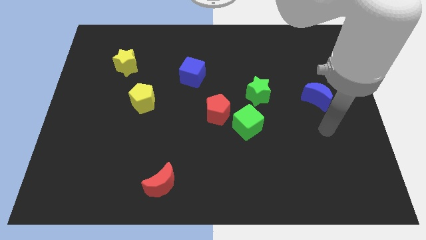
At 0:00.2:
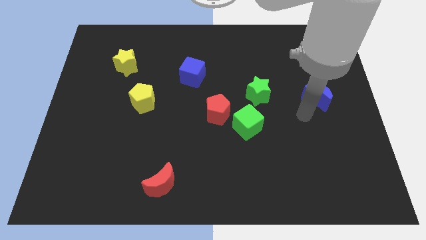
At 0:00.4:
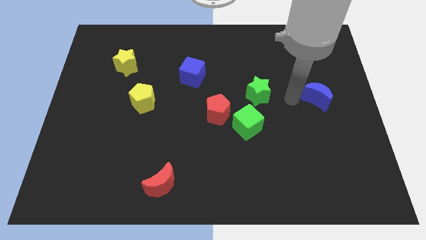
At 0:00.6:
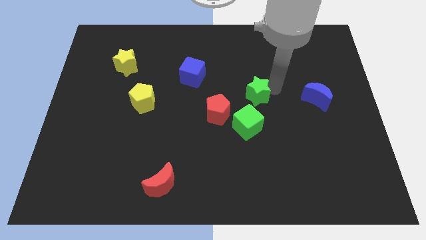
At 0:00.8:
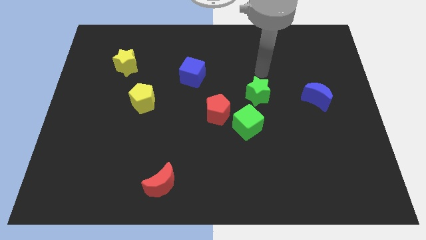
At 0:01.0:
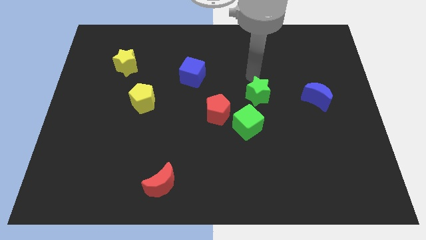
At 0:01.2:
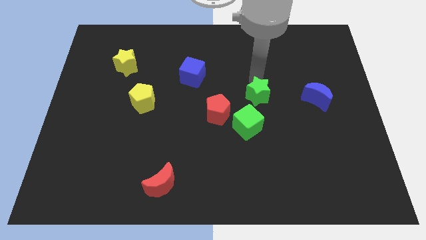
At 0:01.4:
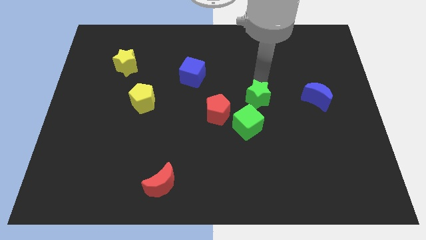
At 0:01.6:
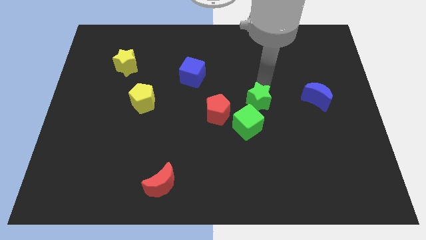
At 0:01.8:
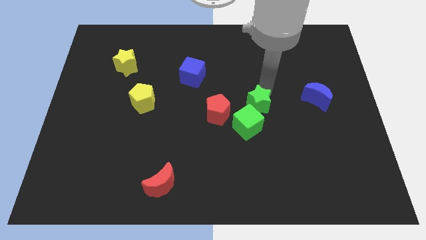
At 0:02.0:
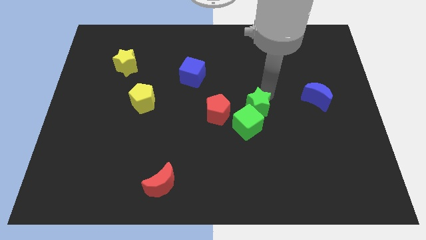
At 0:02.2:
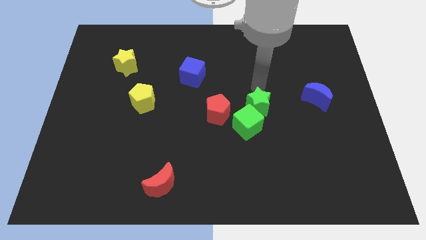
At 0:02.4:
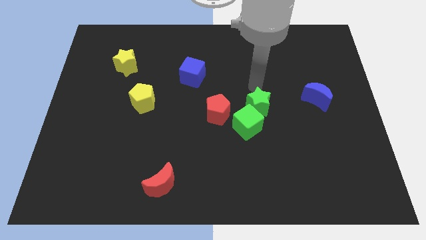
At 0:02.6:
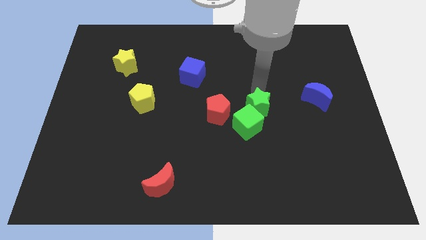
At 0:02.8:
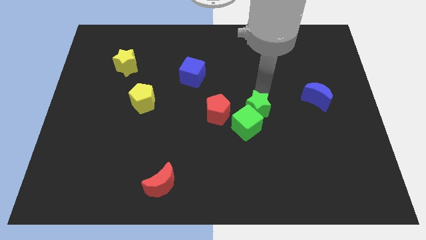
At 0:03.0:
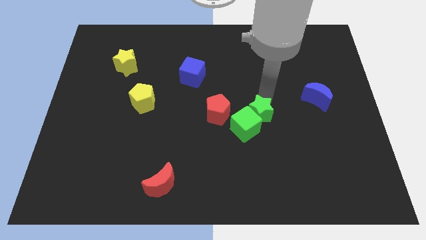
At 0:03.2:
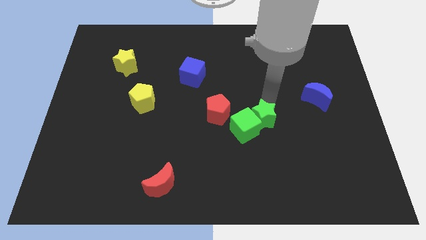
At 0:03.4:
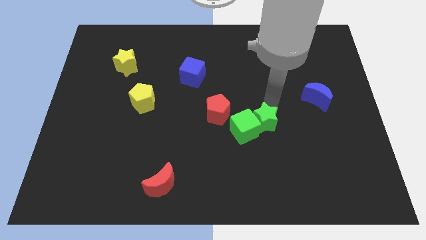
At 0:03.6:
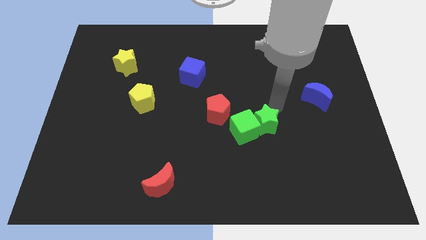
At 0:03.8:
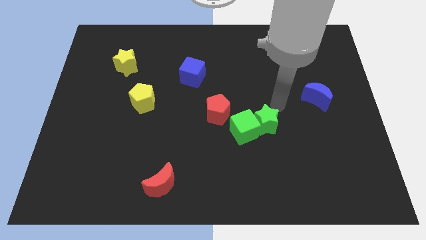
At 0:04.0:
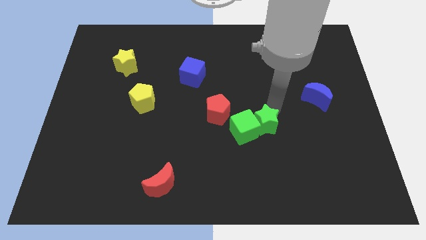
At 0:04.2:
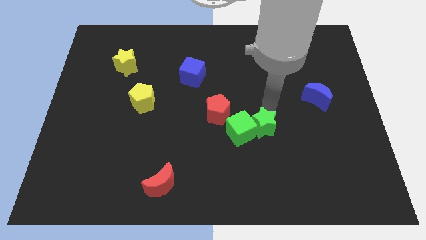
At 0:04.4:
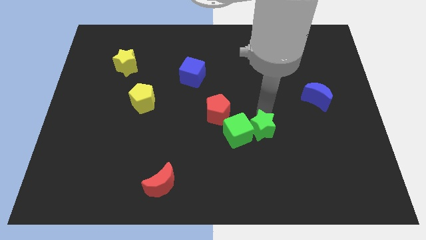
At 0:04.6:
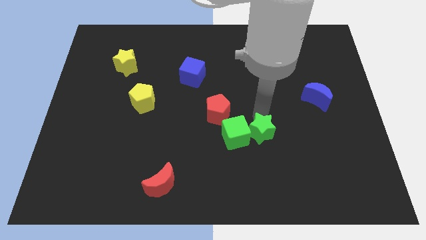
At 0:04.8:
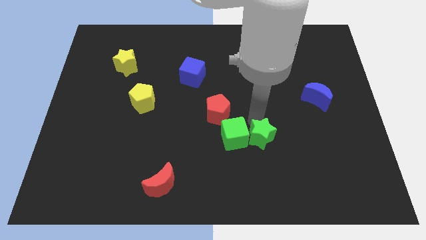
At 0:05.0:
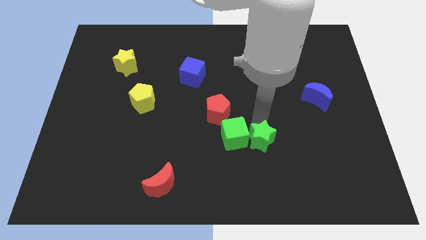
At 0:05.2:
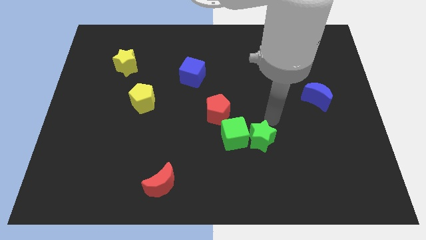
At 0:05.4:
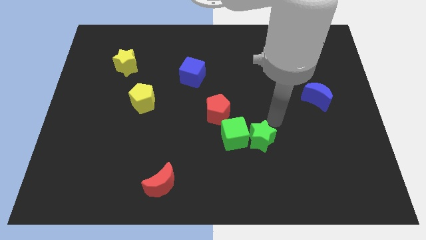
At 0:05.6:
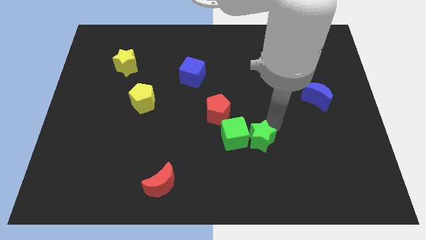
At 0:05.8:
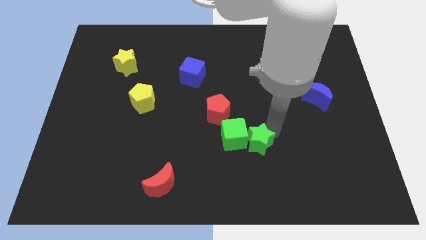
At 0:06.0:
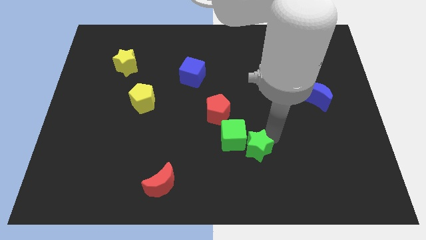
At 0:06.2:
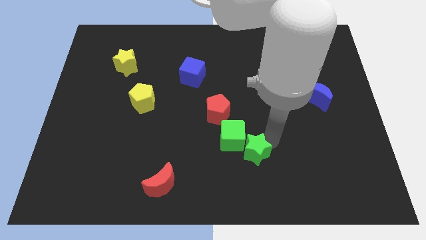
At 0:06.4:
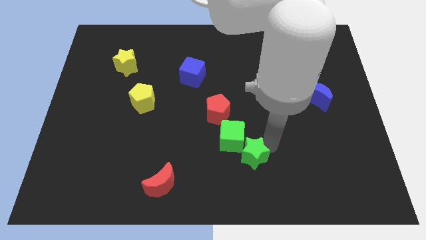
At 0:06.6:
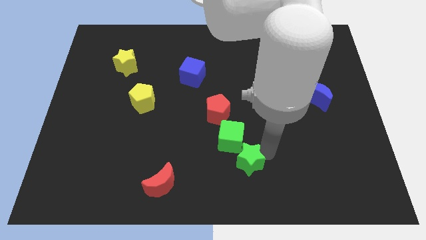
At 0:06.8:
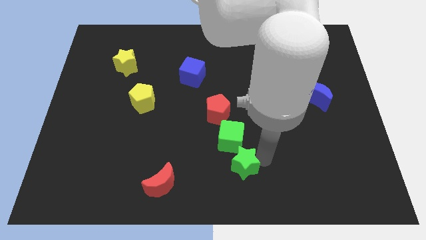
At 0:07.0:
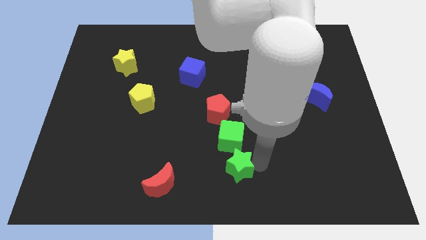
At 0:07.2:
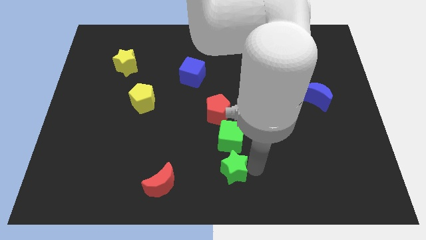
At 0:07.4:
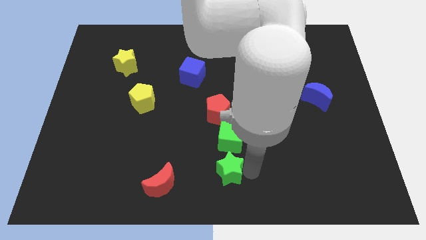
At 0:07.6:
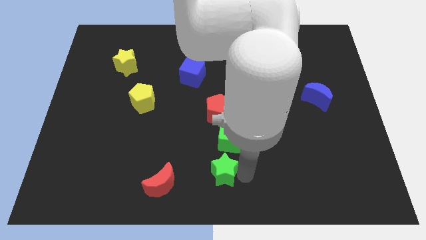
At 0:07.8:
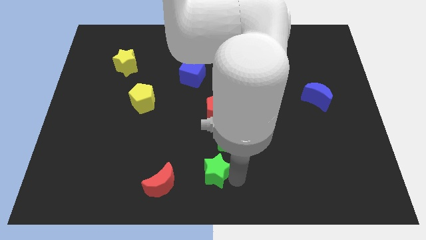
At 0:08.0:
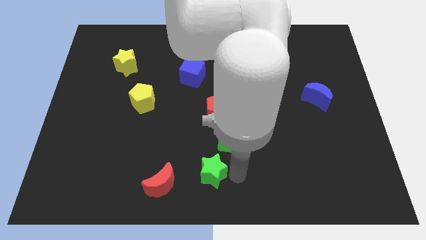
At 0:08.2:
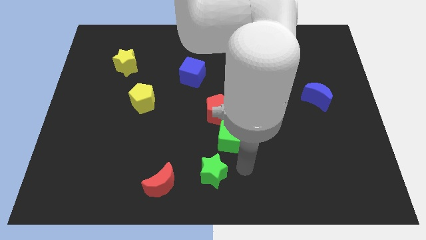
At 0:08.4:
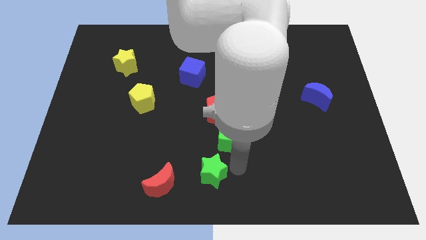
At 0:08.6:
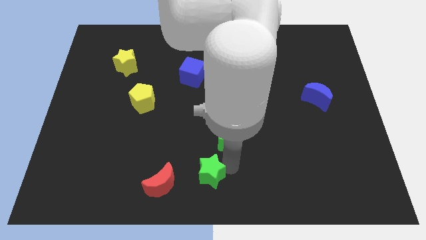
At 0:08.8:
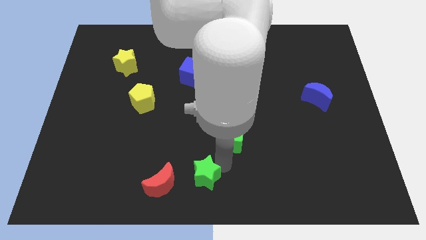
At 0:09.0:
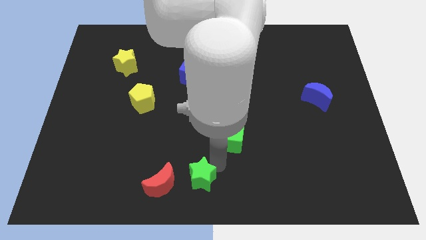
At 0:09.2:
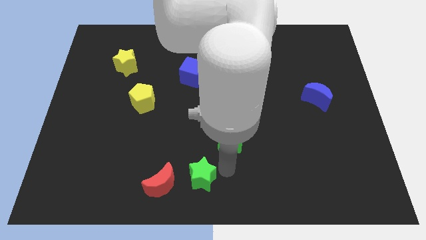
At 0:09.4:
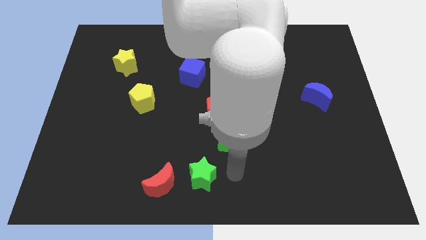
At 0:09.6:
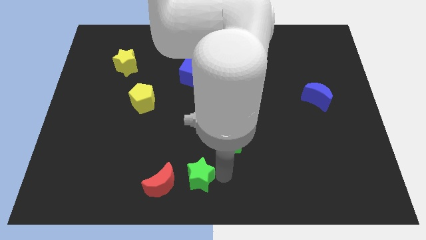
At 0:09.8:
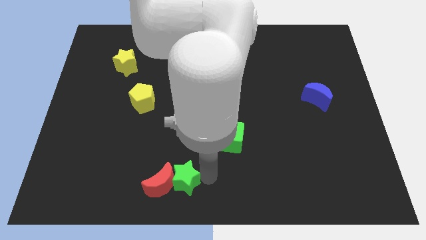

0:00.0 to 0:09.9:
put the green star next to the red moon

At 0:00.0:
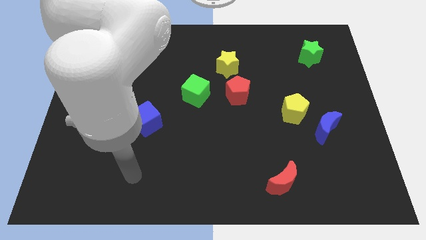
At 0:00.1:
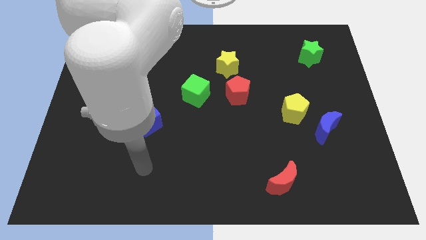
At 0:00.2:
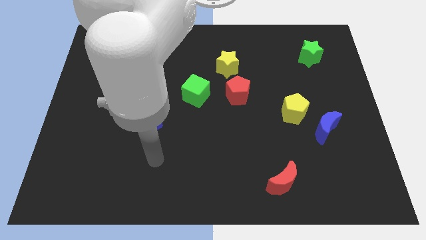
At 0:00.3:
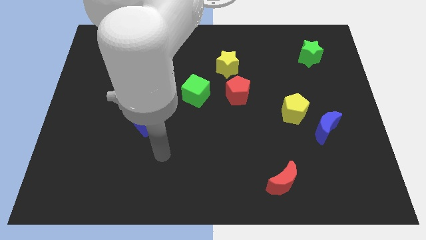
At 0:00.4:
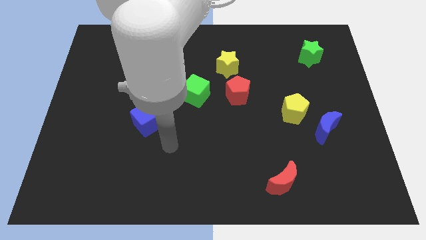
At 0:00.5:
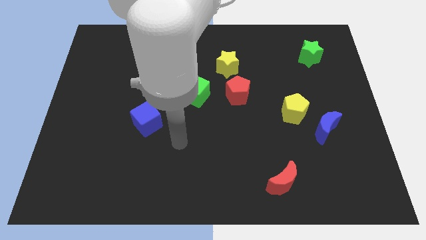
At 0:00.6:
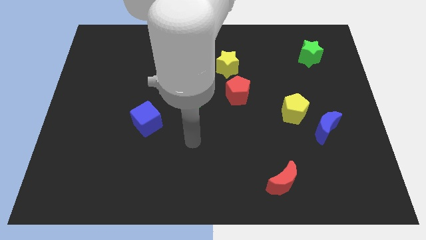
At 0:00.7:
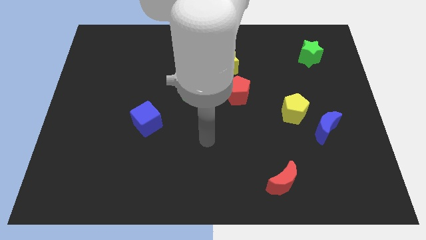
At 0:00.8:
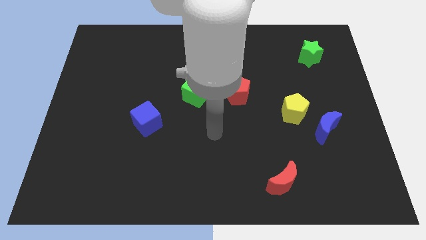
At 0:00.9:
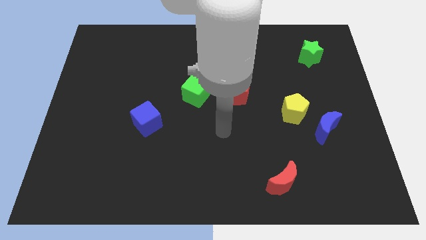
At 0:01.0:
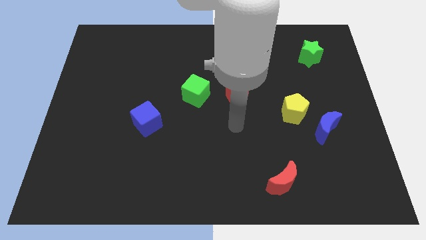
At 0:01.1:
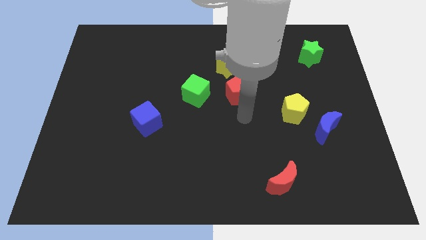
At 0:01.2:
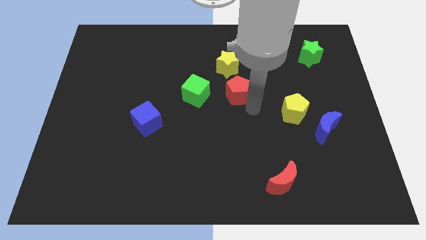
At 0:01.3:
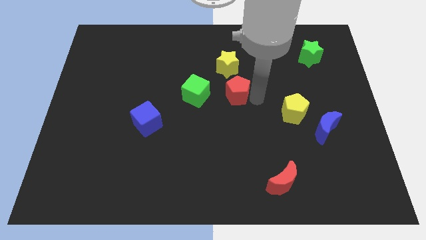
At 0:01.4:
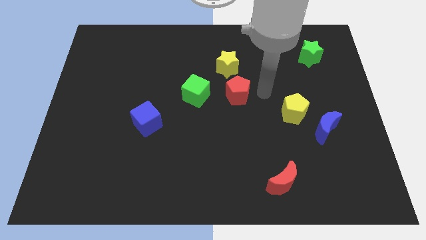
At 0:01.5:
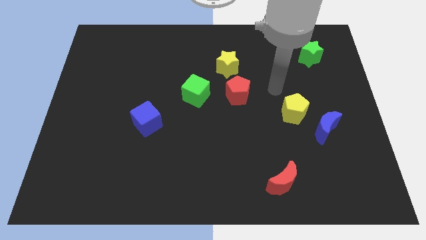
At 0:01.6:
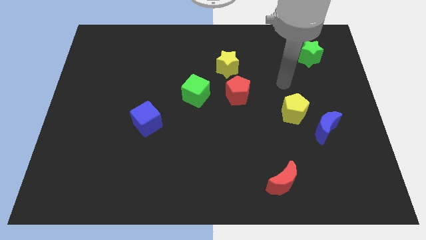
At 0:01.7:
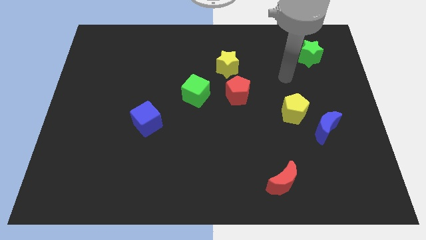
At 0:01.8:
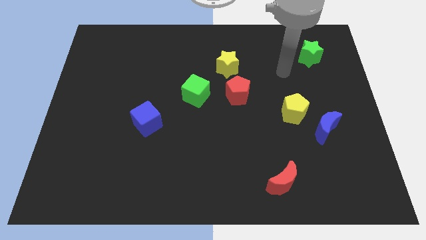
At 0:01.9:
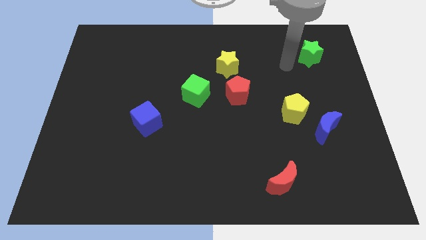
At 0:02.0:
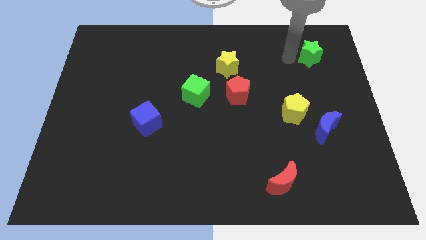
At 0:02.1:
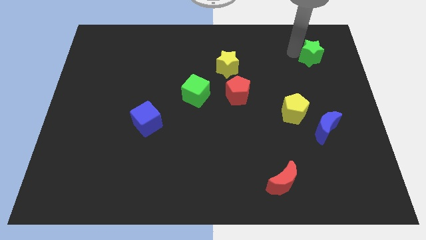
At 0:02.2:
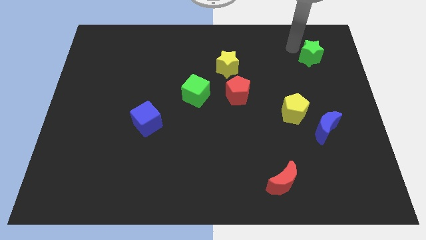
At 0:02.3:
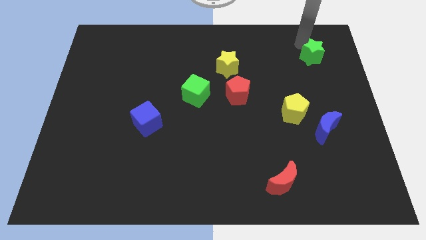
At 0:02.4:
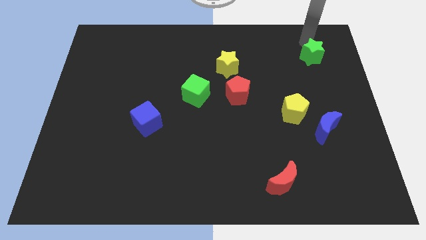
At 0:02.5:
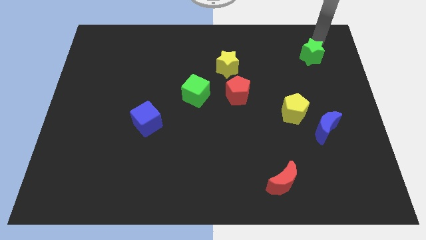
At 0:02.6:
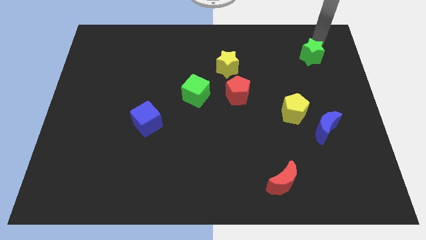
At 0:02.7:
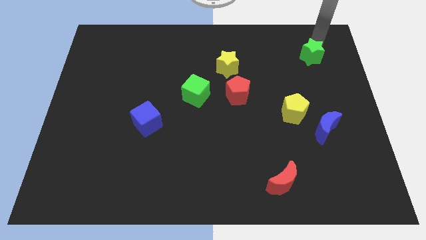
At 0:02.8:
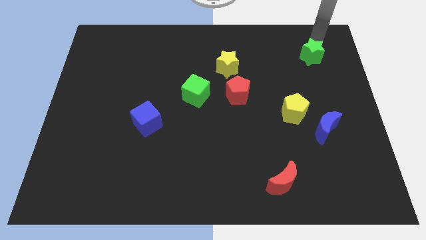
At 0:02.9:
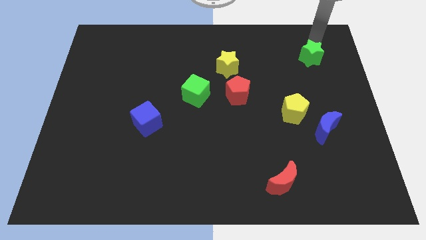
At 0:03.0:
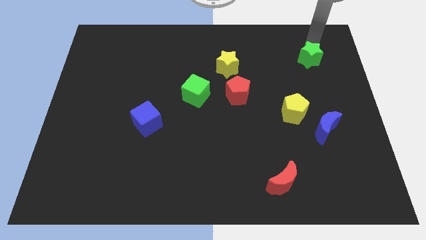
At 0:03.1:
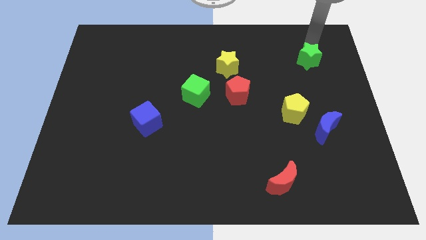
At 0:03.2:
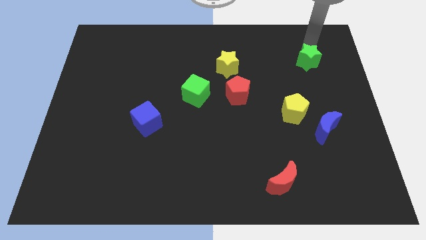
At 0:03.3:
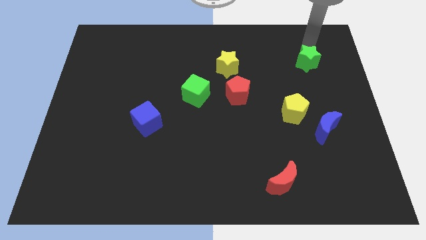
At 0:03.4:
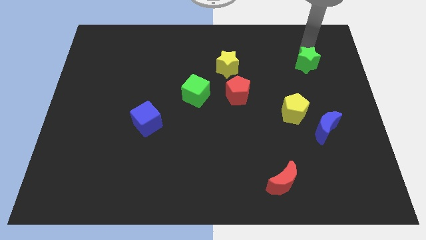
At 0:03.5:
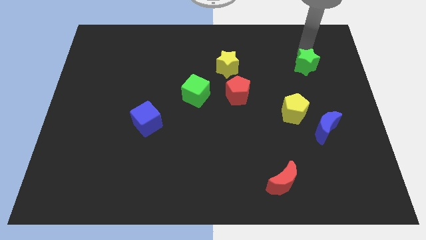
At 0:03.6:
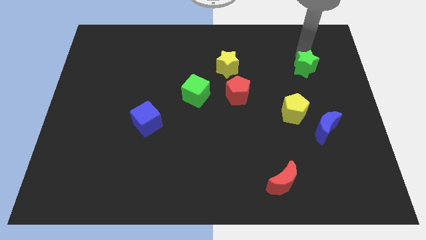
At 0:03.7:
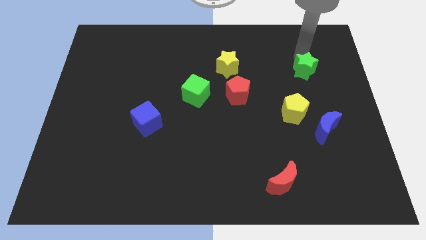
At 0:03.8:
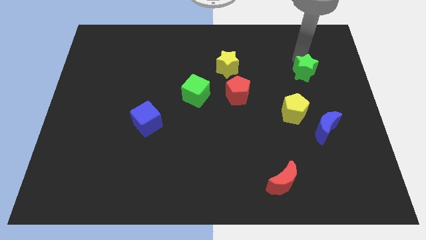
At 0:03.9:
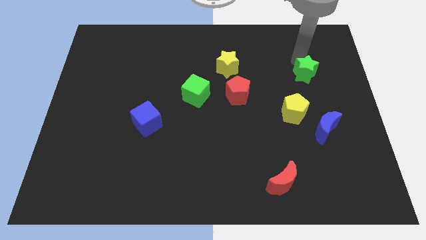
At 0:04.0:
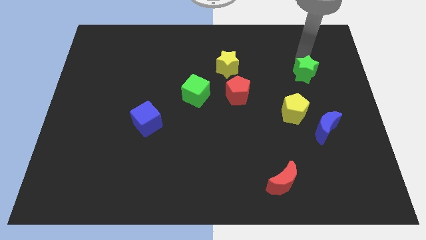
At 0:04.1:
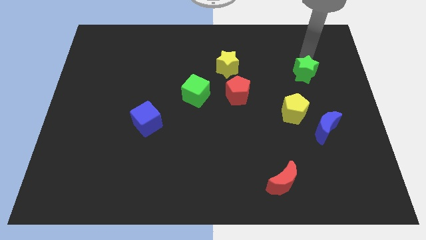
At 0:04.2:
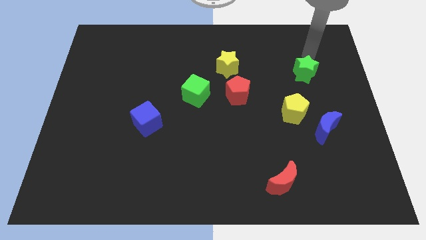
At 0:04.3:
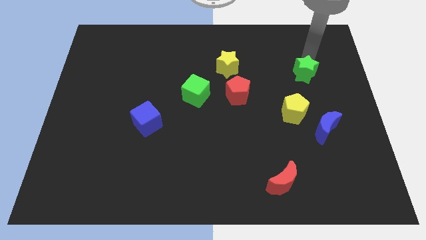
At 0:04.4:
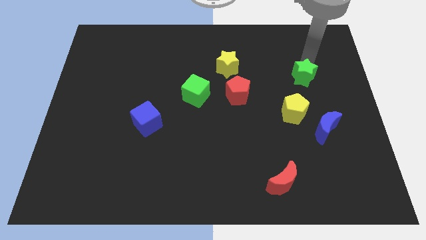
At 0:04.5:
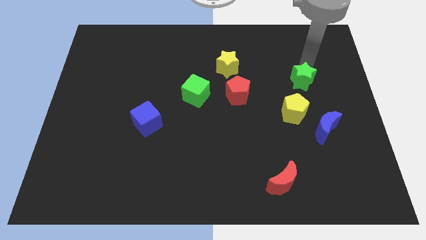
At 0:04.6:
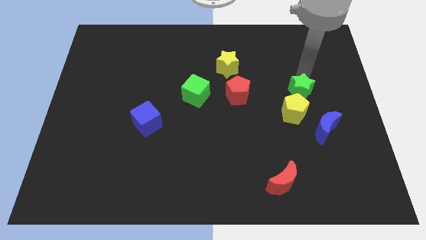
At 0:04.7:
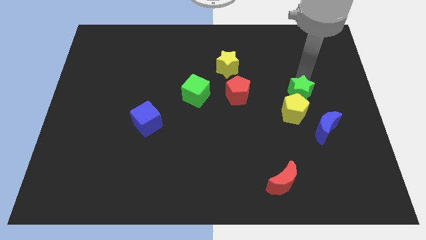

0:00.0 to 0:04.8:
move the green star to the yellow pentagon
